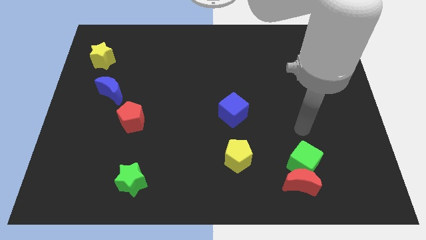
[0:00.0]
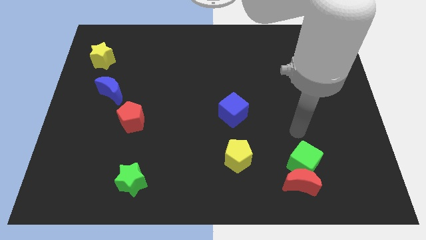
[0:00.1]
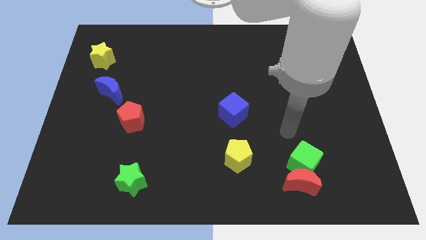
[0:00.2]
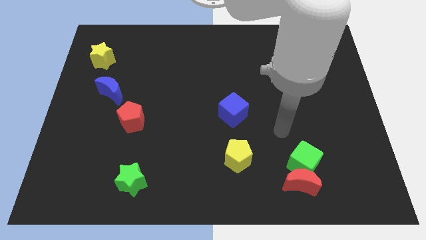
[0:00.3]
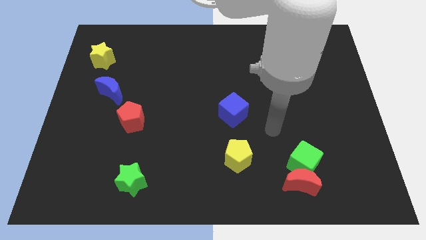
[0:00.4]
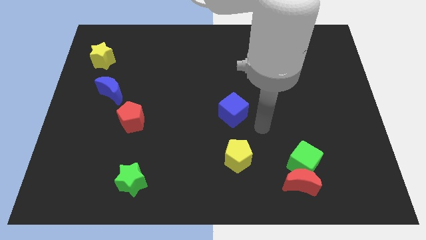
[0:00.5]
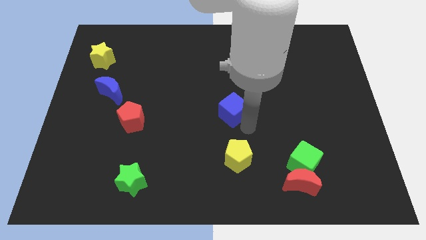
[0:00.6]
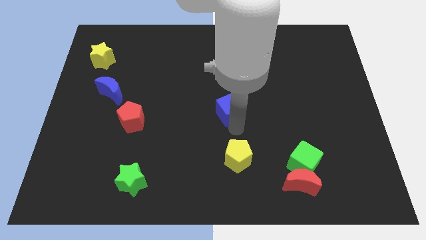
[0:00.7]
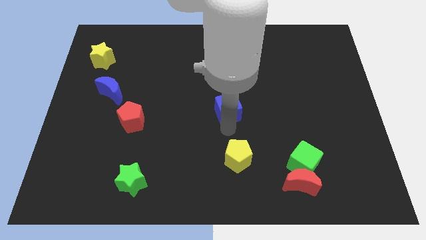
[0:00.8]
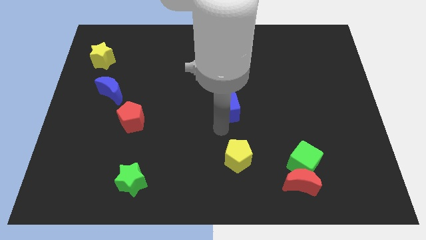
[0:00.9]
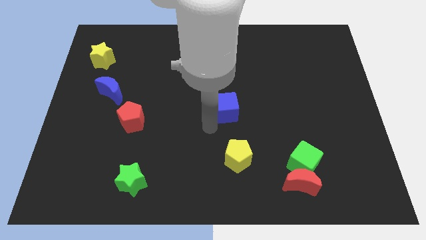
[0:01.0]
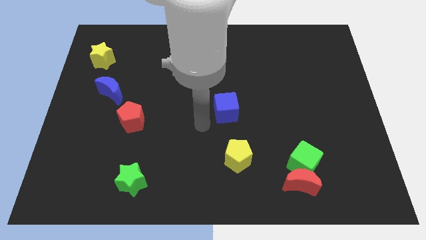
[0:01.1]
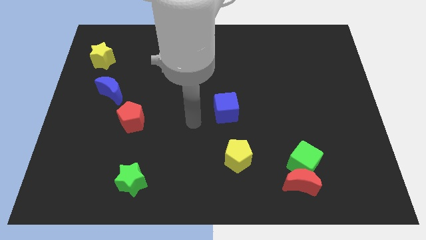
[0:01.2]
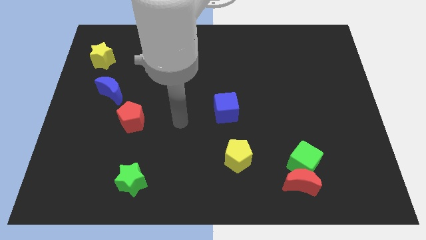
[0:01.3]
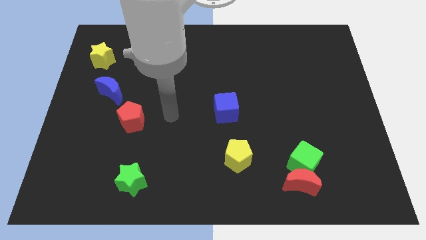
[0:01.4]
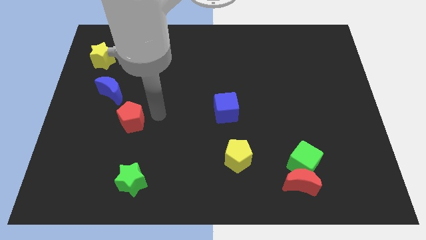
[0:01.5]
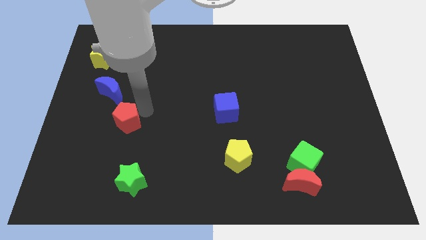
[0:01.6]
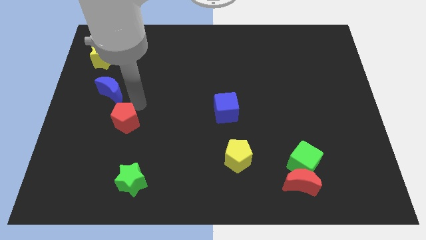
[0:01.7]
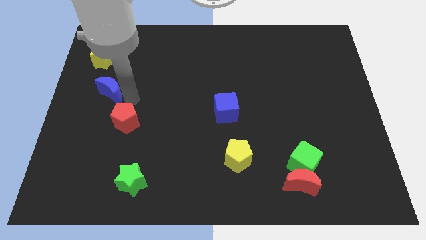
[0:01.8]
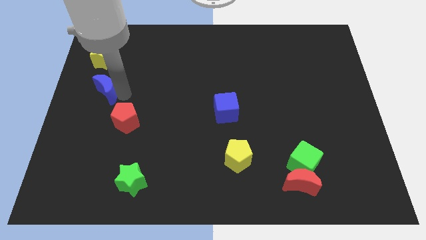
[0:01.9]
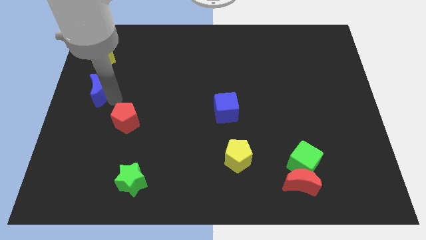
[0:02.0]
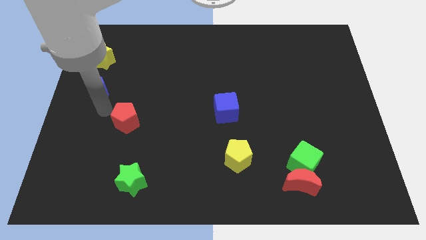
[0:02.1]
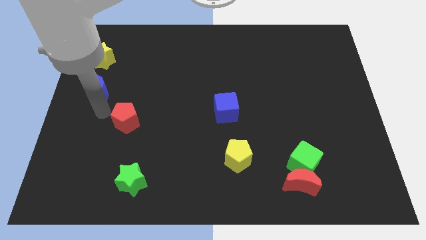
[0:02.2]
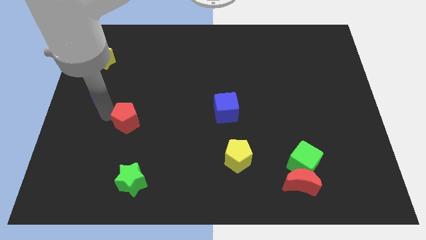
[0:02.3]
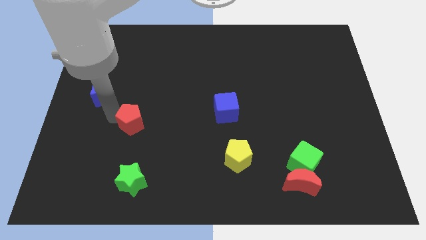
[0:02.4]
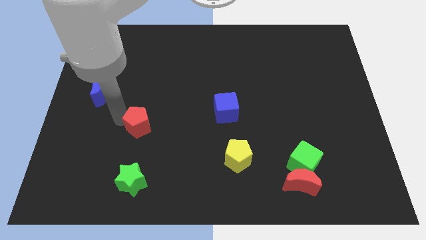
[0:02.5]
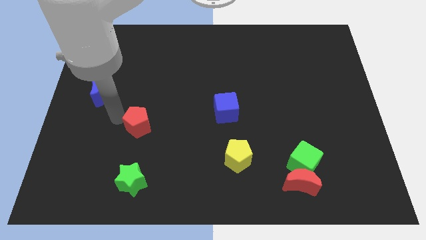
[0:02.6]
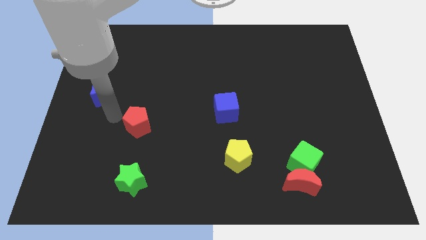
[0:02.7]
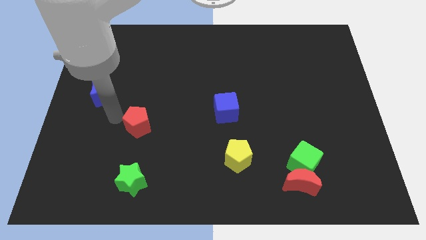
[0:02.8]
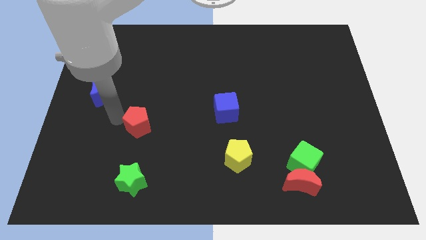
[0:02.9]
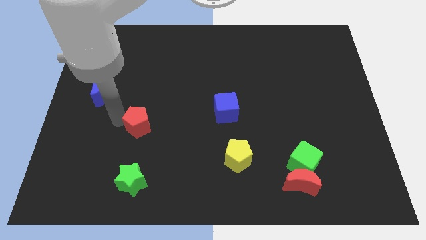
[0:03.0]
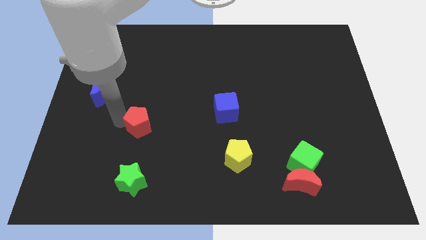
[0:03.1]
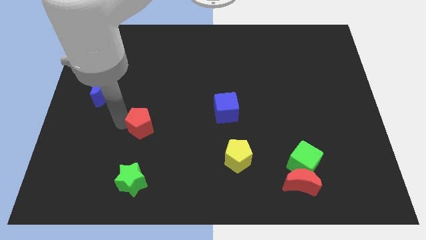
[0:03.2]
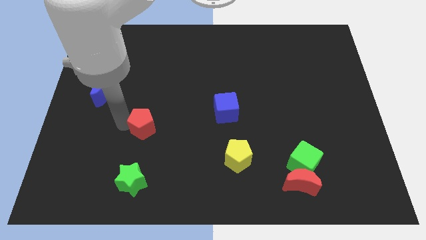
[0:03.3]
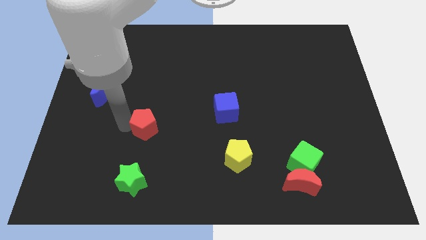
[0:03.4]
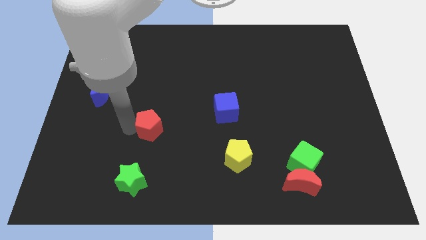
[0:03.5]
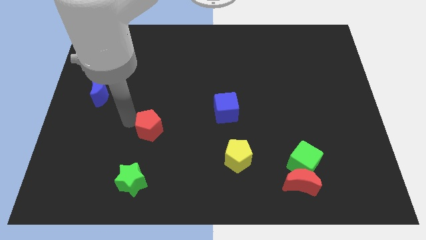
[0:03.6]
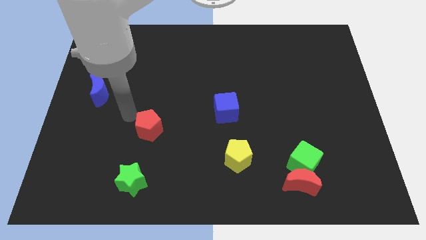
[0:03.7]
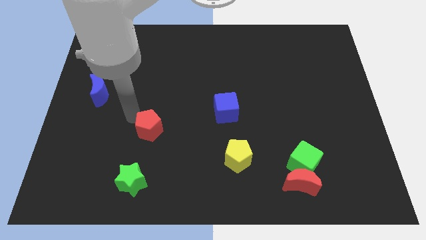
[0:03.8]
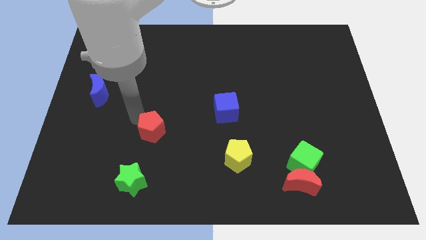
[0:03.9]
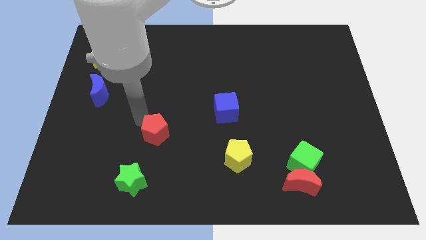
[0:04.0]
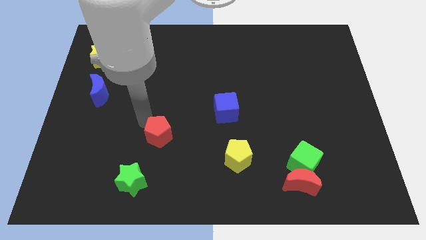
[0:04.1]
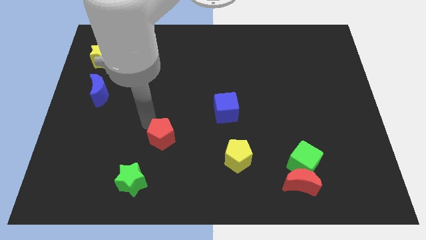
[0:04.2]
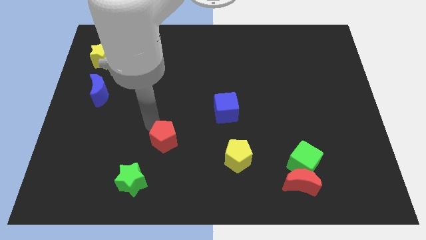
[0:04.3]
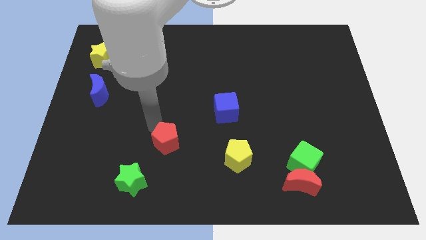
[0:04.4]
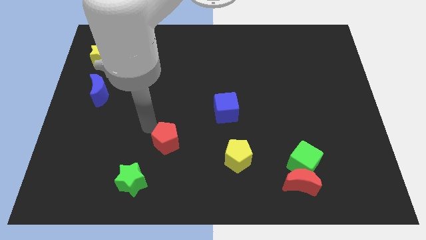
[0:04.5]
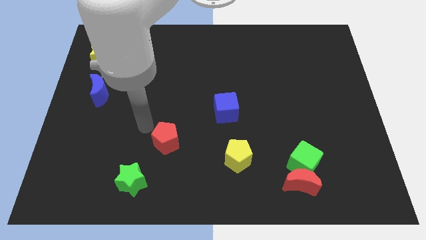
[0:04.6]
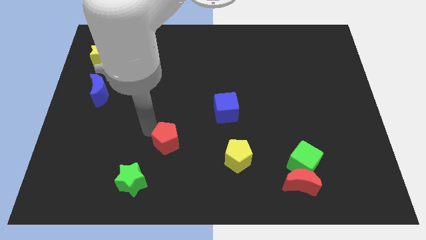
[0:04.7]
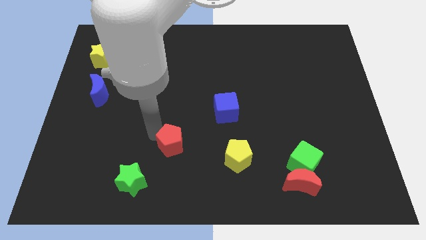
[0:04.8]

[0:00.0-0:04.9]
slide the red pentagon to the left side of the yellow pentagon

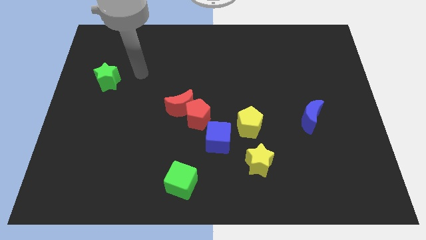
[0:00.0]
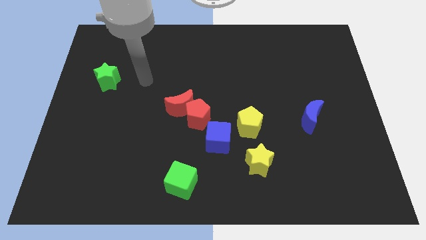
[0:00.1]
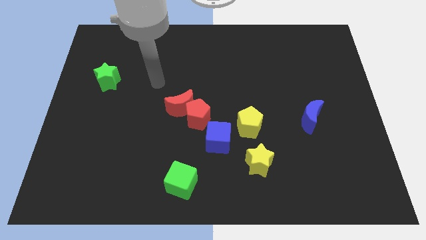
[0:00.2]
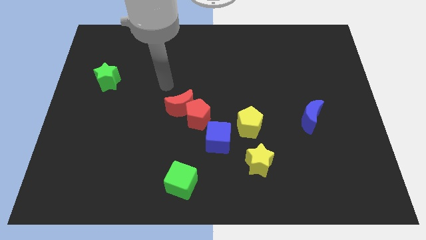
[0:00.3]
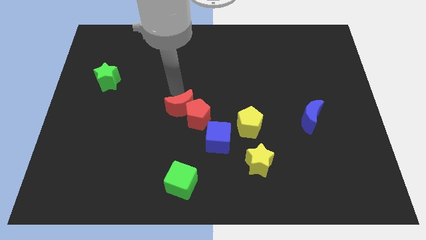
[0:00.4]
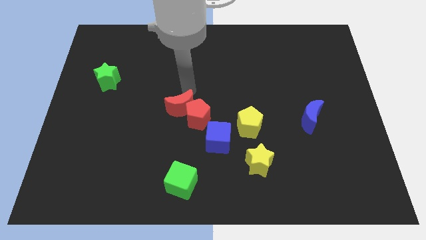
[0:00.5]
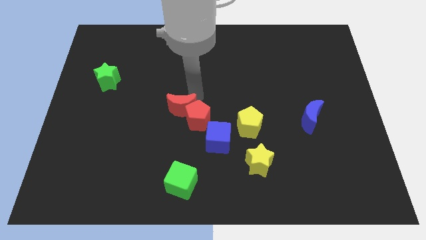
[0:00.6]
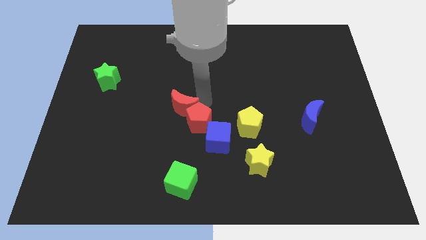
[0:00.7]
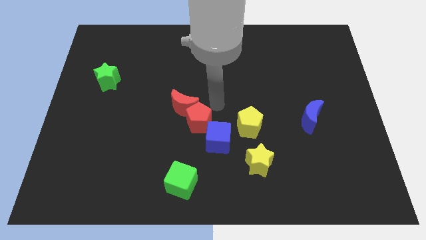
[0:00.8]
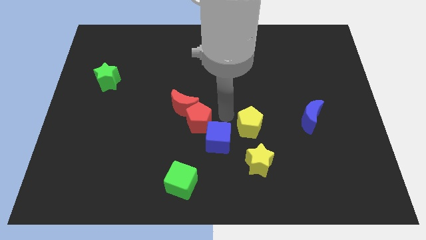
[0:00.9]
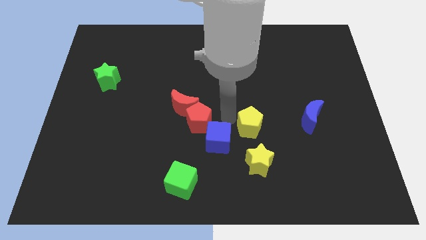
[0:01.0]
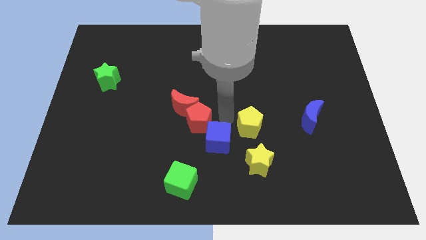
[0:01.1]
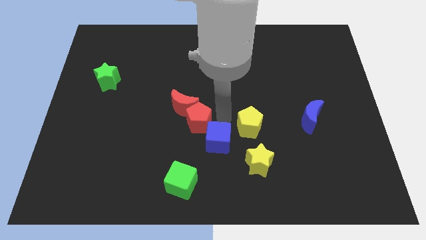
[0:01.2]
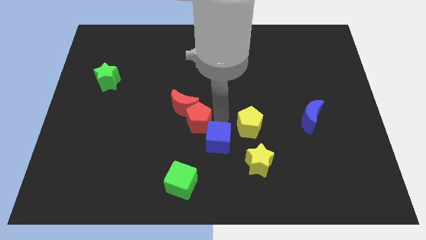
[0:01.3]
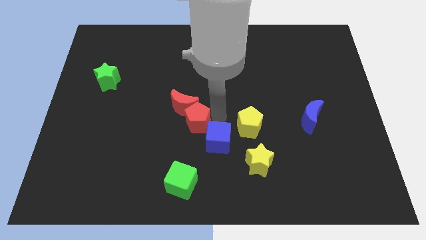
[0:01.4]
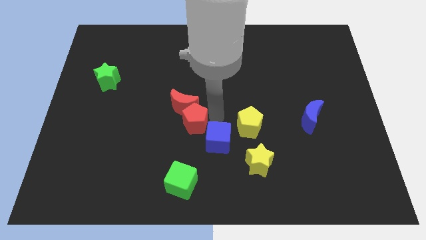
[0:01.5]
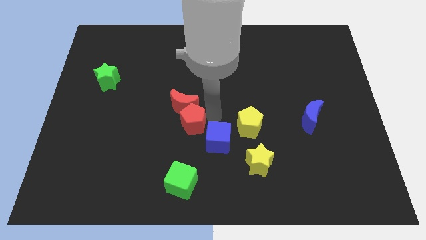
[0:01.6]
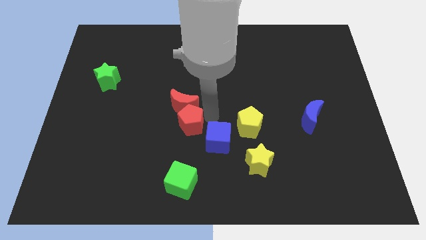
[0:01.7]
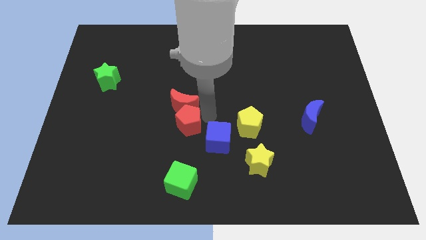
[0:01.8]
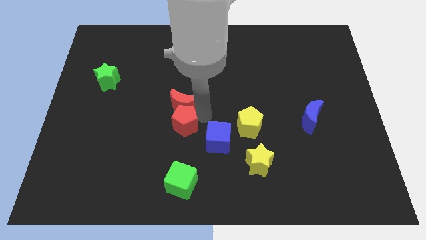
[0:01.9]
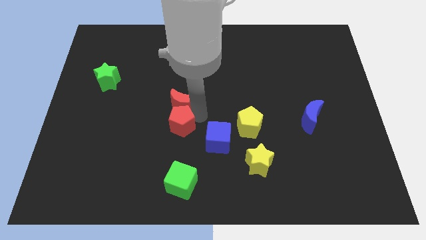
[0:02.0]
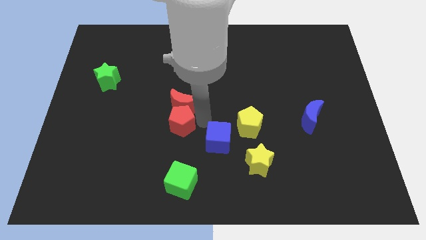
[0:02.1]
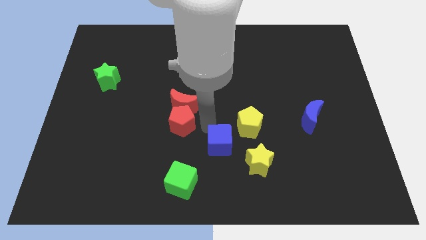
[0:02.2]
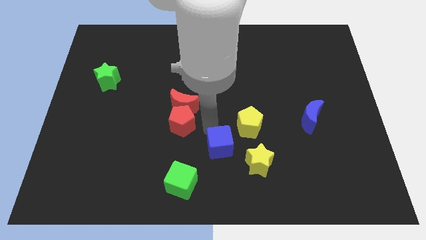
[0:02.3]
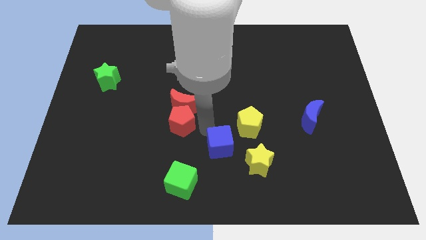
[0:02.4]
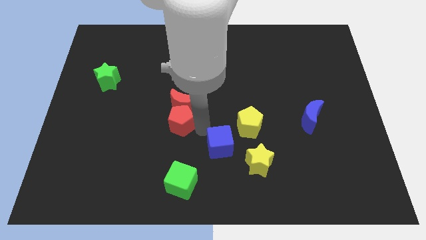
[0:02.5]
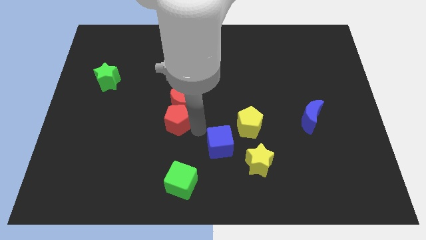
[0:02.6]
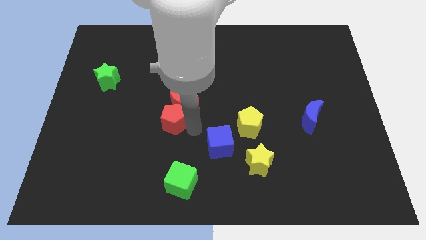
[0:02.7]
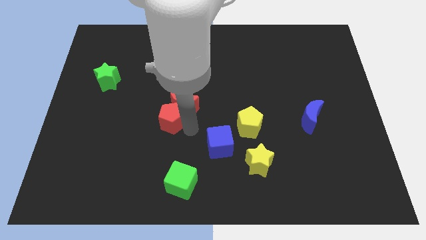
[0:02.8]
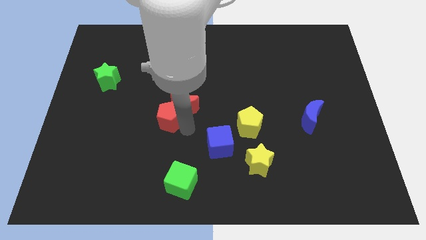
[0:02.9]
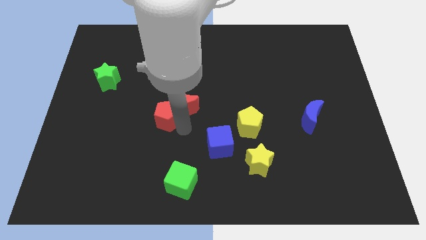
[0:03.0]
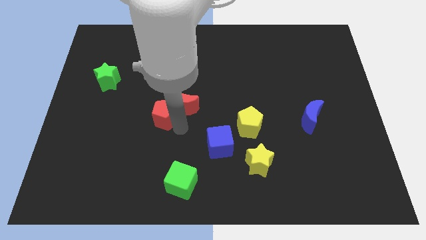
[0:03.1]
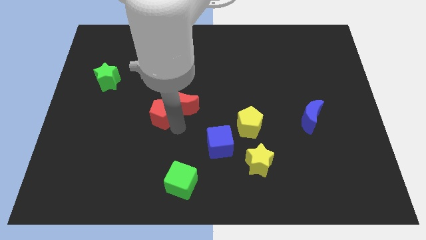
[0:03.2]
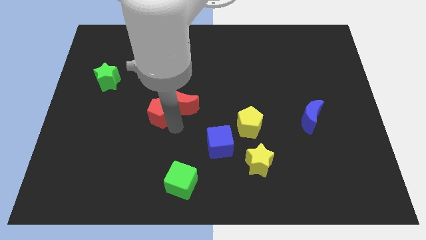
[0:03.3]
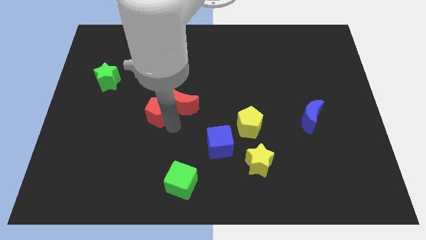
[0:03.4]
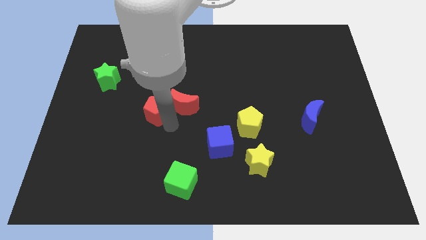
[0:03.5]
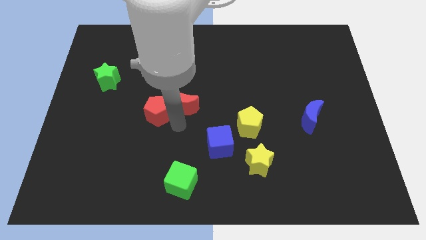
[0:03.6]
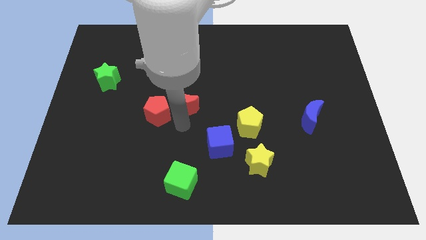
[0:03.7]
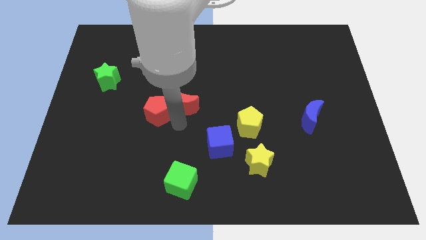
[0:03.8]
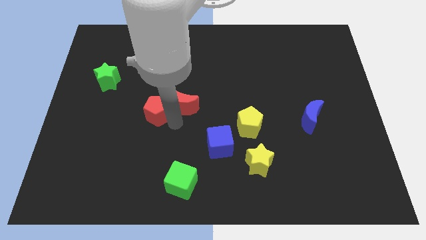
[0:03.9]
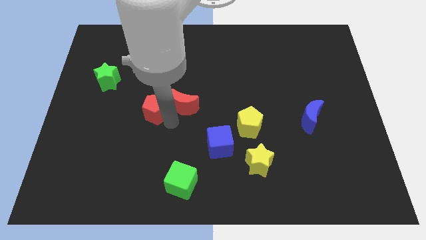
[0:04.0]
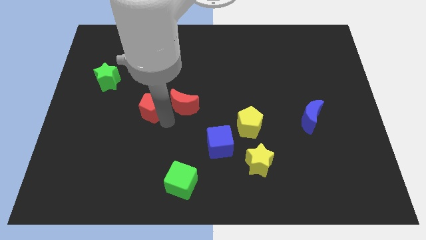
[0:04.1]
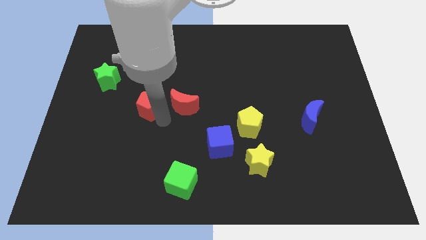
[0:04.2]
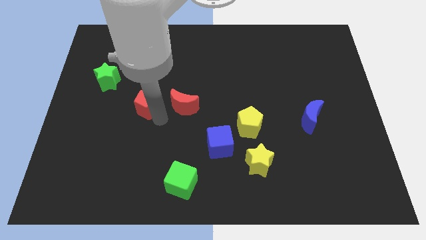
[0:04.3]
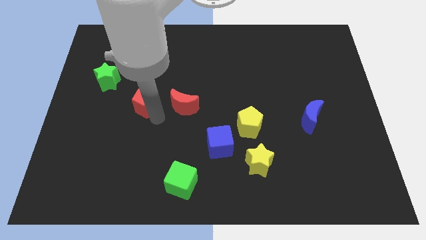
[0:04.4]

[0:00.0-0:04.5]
put the red pentagon to the bottom right of the green star
